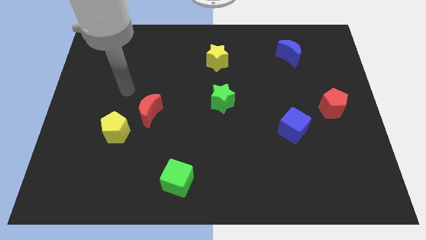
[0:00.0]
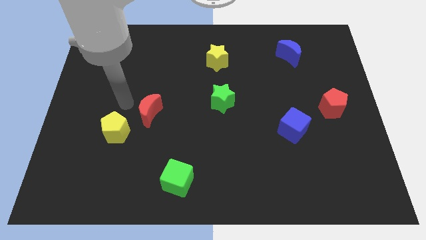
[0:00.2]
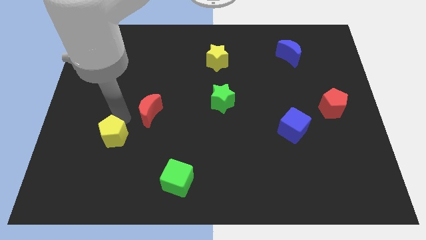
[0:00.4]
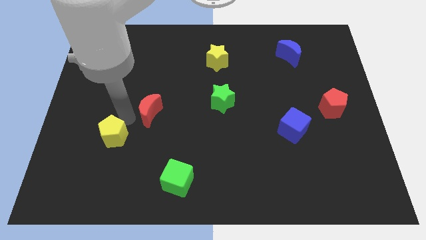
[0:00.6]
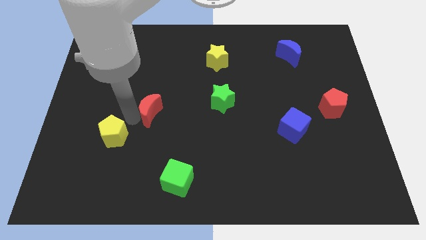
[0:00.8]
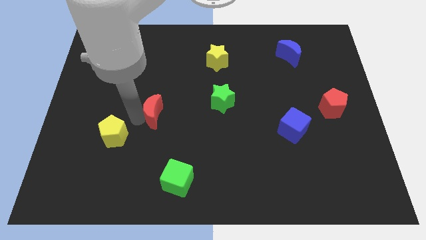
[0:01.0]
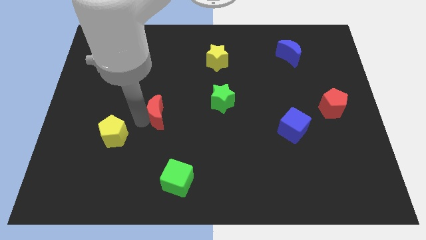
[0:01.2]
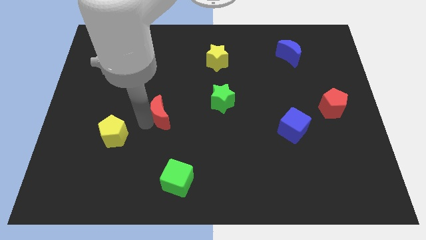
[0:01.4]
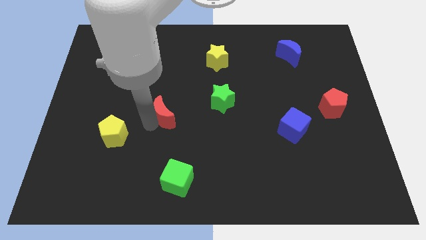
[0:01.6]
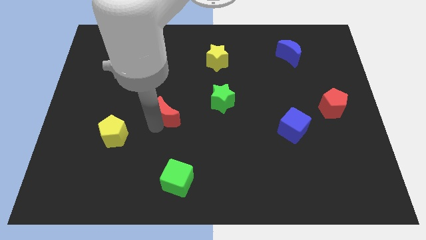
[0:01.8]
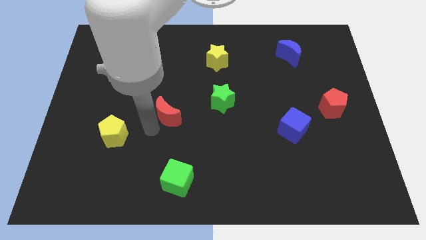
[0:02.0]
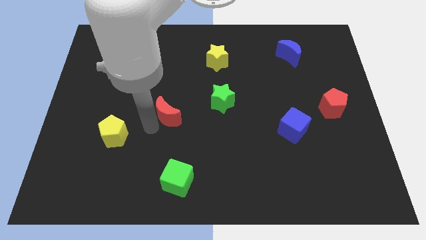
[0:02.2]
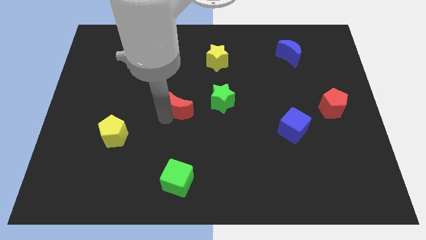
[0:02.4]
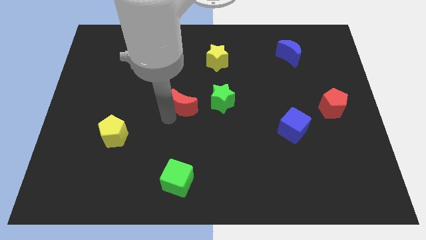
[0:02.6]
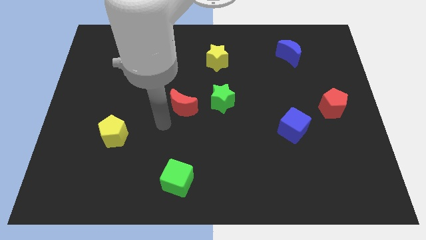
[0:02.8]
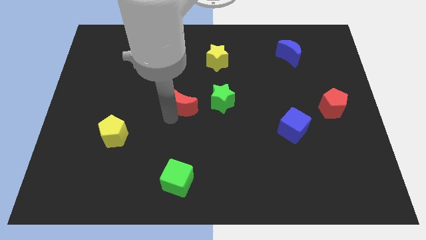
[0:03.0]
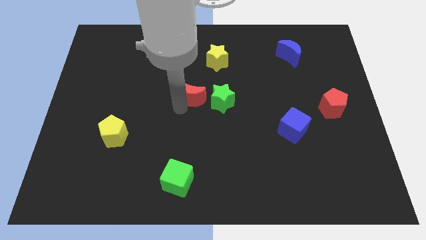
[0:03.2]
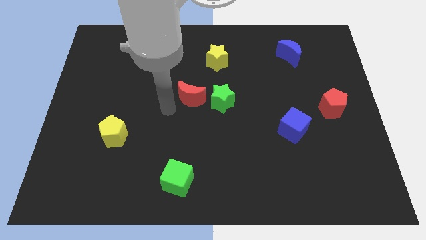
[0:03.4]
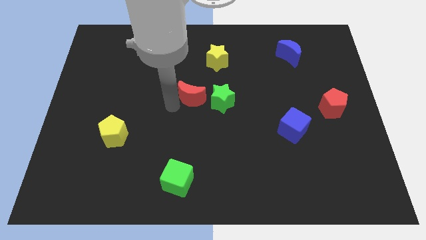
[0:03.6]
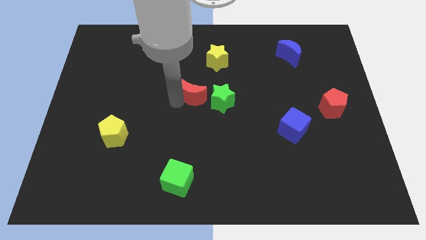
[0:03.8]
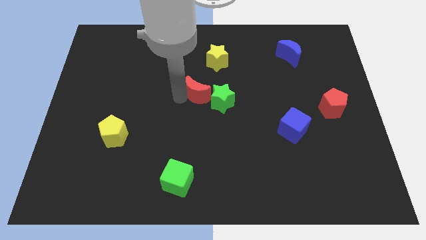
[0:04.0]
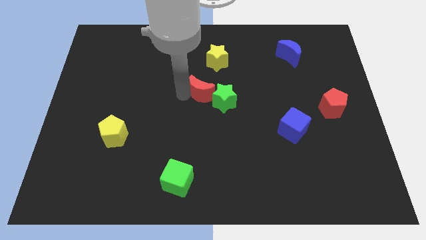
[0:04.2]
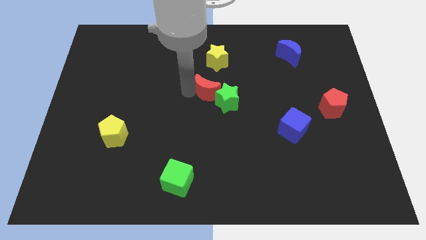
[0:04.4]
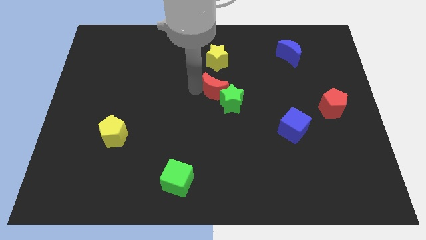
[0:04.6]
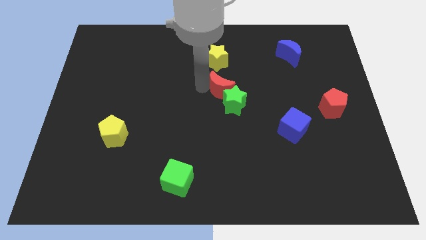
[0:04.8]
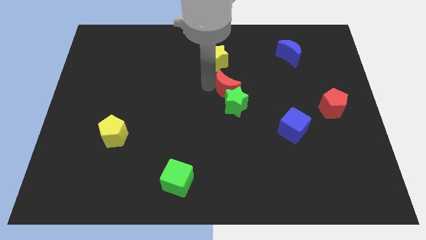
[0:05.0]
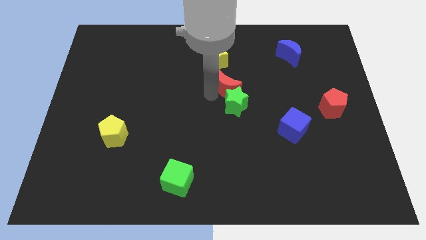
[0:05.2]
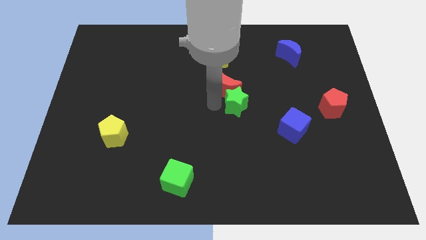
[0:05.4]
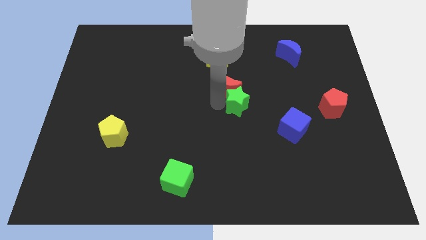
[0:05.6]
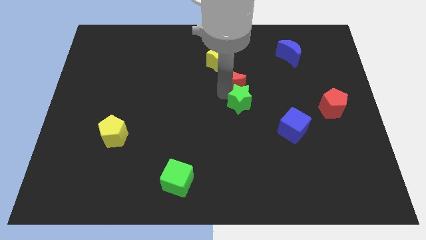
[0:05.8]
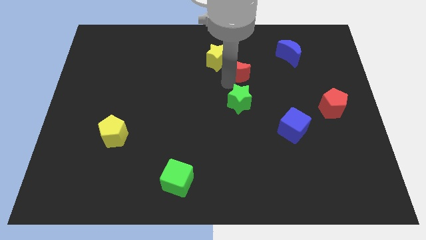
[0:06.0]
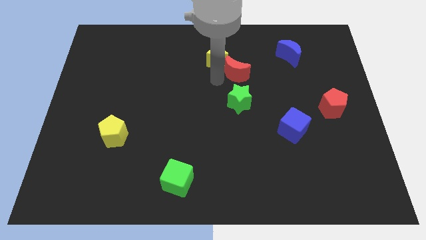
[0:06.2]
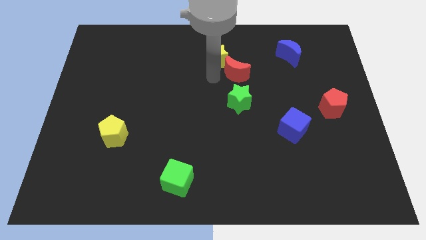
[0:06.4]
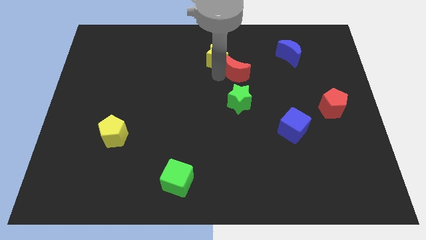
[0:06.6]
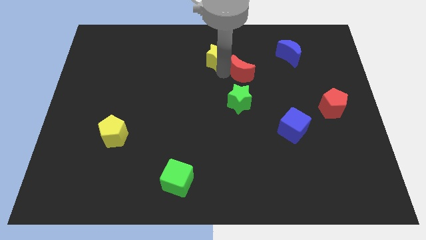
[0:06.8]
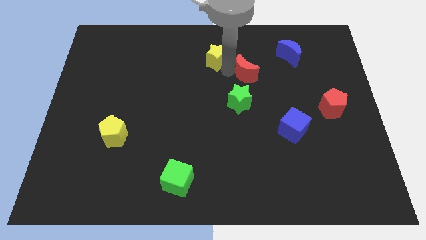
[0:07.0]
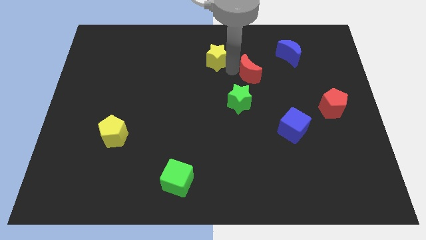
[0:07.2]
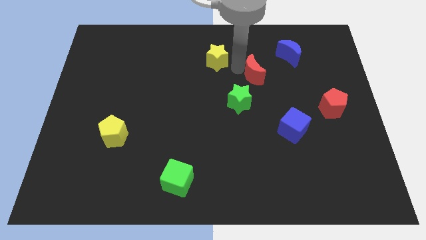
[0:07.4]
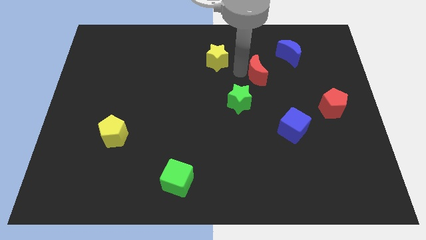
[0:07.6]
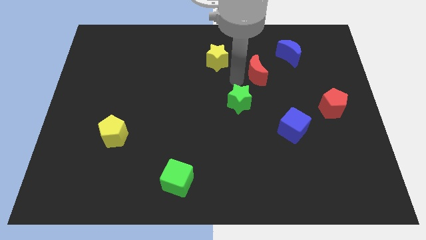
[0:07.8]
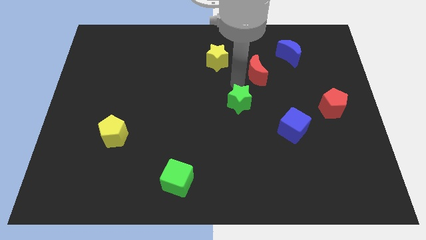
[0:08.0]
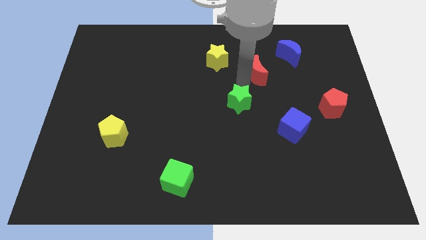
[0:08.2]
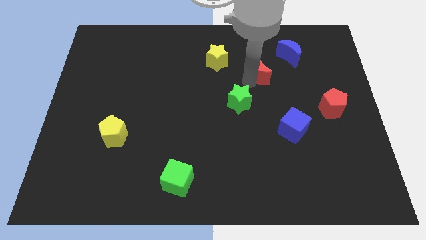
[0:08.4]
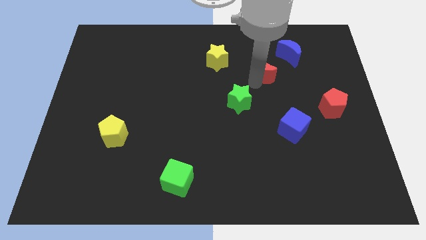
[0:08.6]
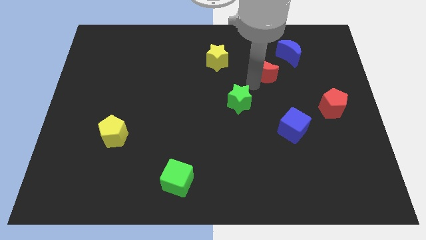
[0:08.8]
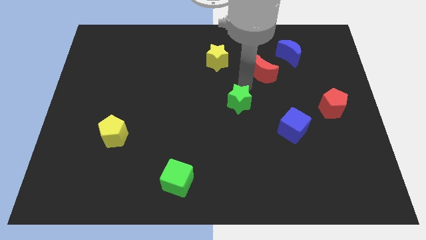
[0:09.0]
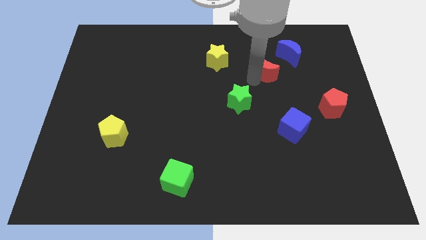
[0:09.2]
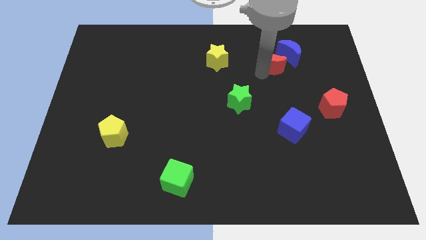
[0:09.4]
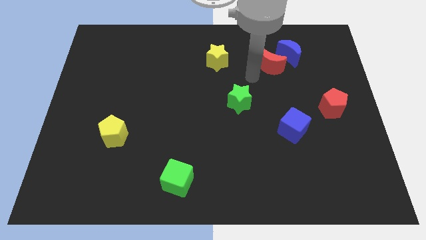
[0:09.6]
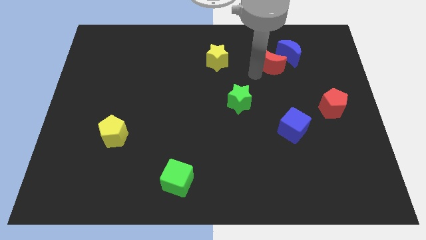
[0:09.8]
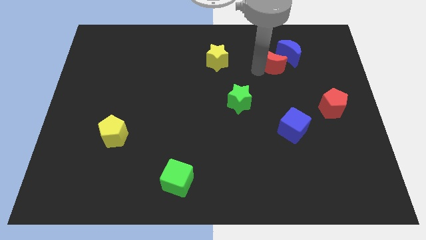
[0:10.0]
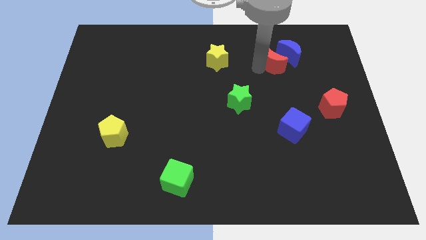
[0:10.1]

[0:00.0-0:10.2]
put the red moon to the blue moon

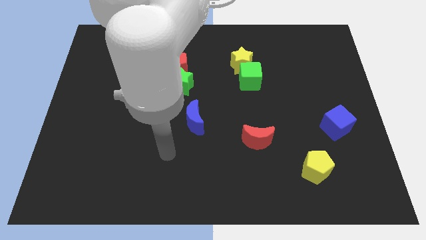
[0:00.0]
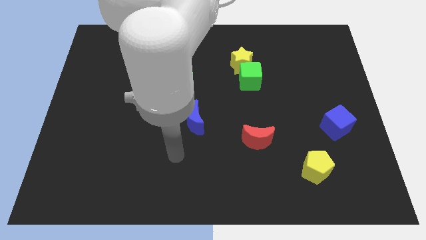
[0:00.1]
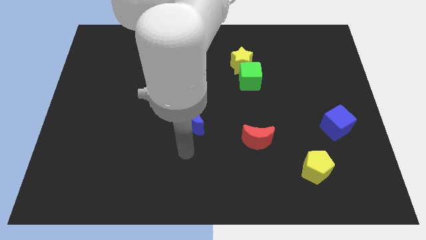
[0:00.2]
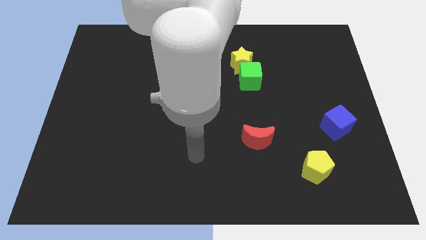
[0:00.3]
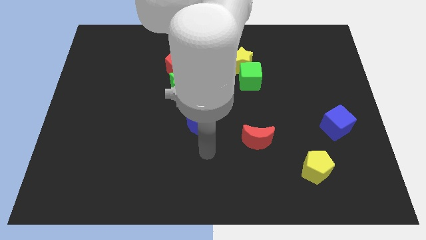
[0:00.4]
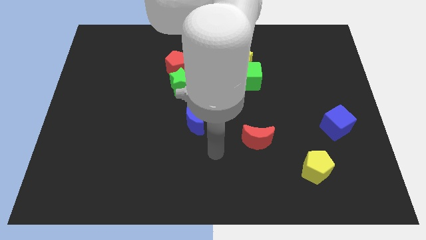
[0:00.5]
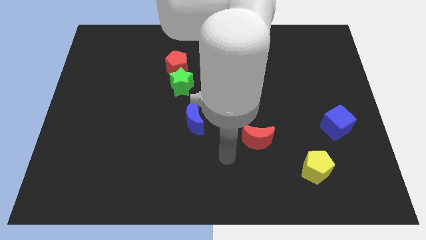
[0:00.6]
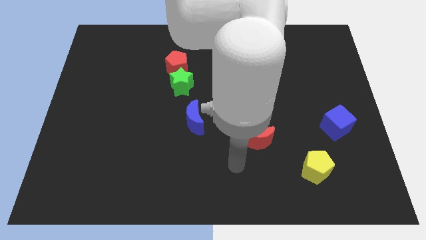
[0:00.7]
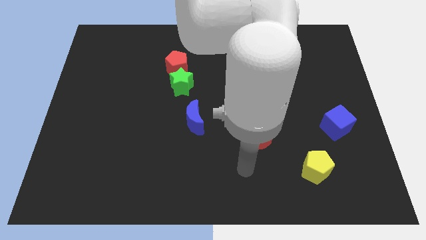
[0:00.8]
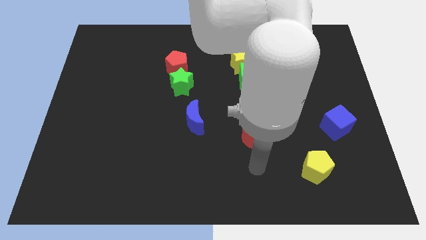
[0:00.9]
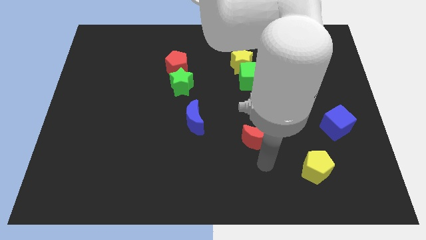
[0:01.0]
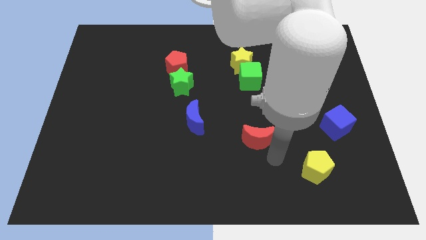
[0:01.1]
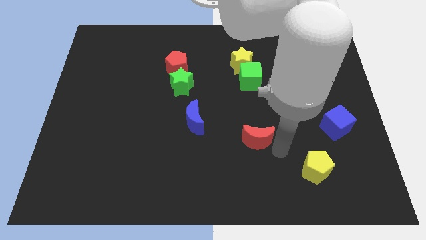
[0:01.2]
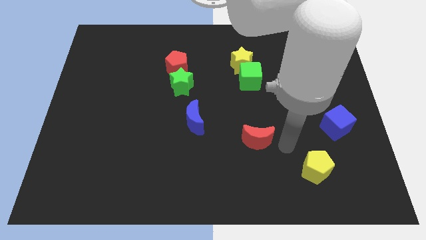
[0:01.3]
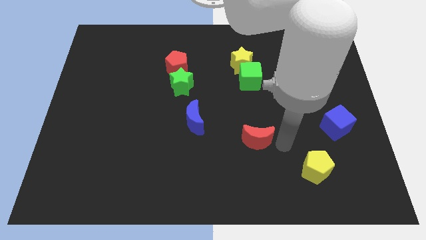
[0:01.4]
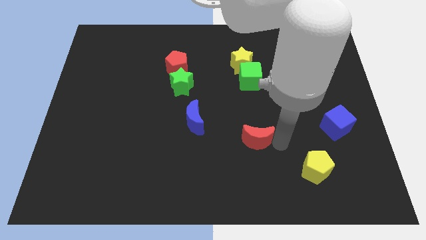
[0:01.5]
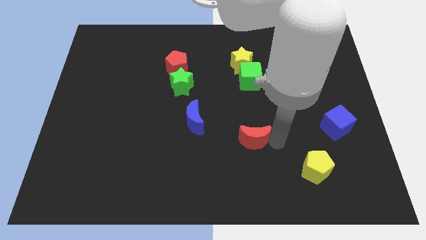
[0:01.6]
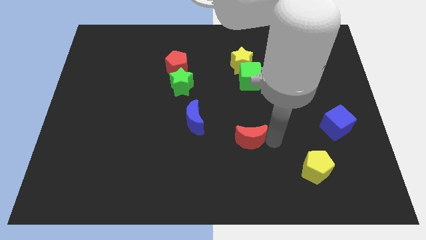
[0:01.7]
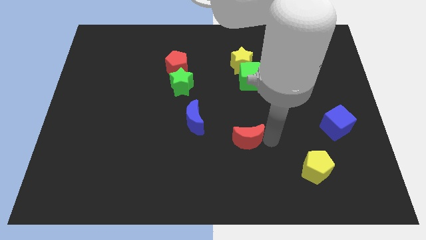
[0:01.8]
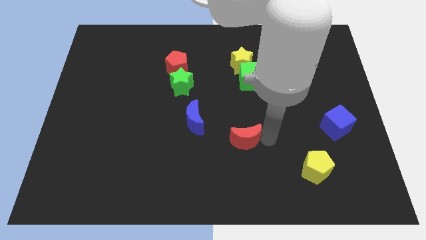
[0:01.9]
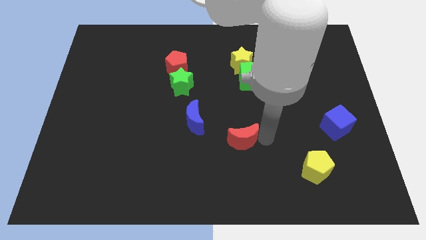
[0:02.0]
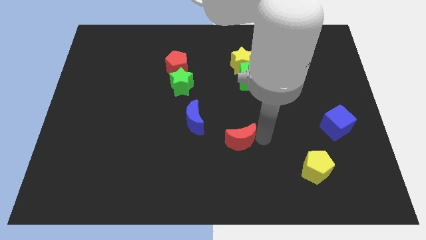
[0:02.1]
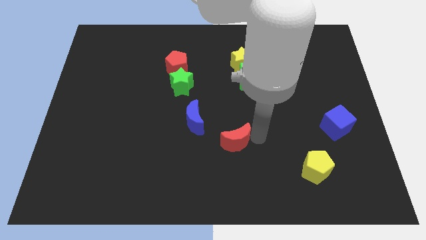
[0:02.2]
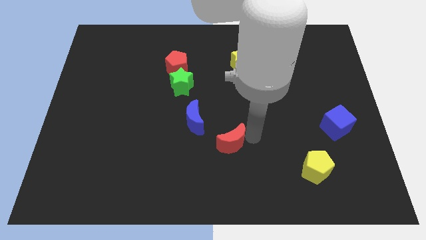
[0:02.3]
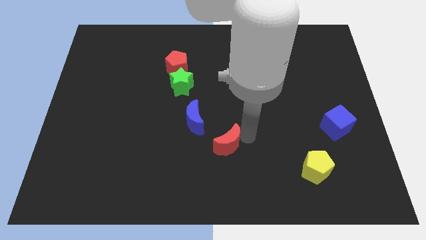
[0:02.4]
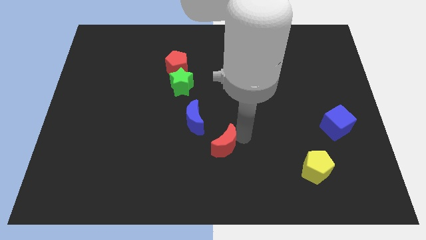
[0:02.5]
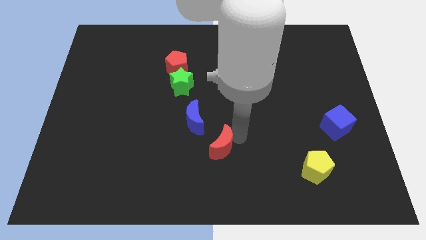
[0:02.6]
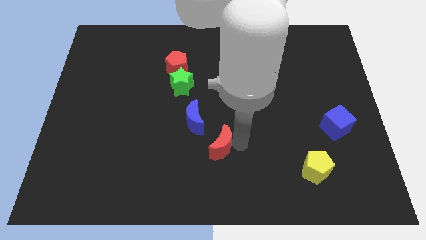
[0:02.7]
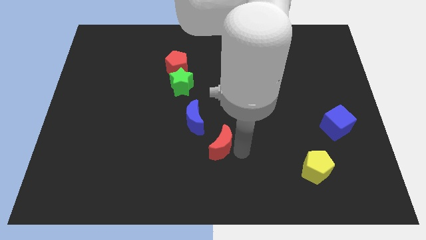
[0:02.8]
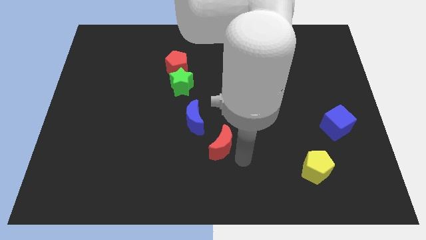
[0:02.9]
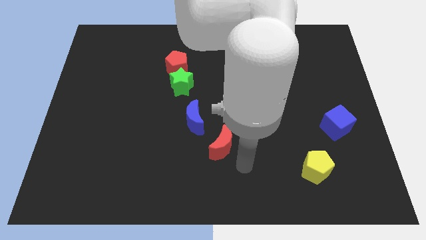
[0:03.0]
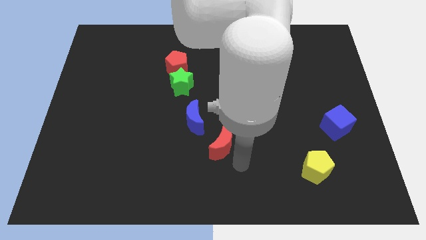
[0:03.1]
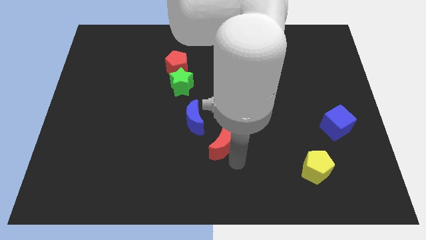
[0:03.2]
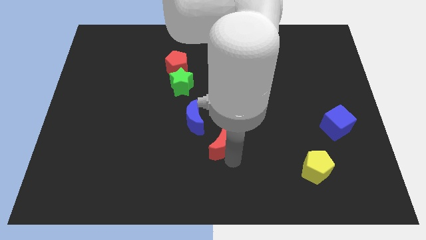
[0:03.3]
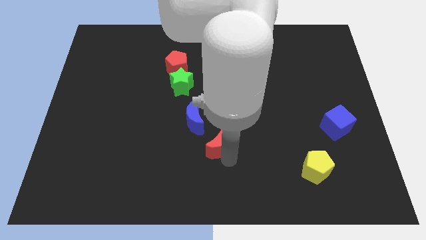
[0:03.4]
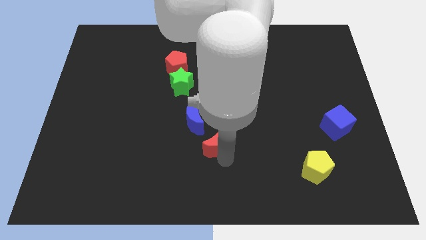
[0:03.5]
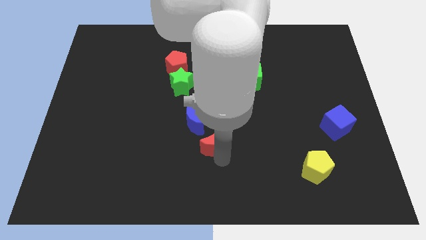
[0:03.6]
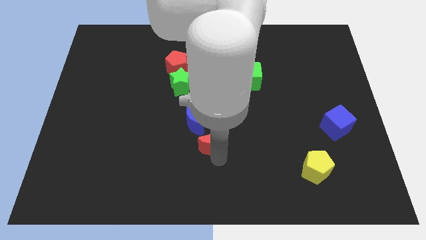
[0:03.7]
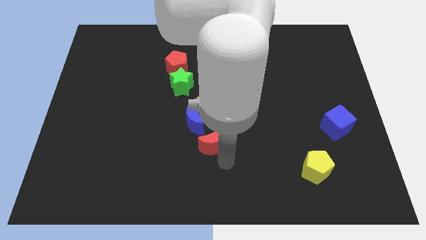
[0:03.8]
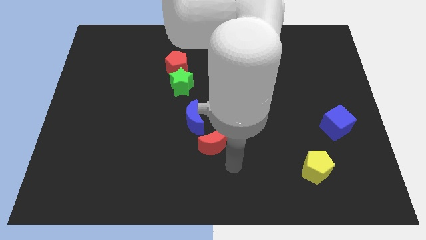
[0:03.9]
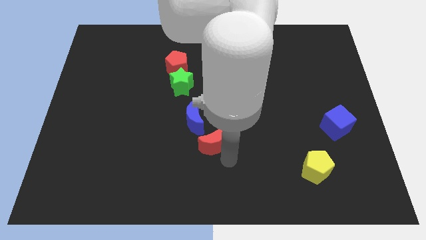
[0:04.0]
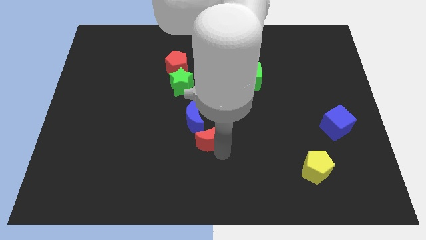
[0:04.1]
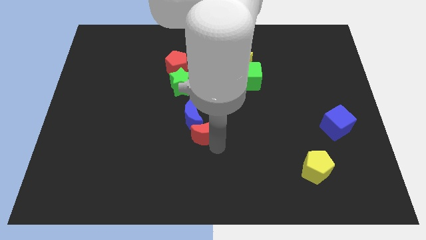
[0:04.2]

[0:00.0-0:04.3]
move the red moon close to the blue moon
